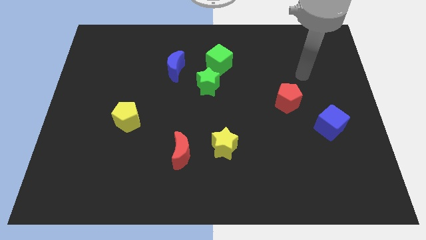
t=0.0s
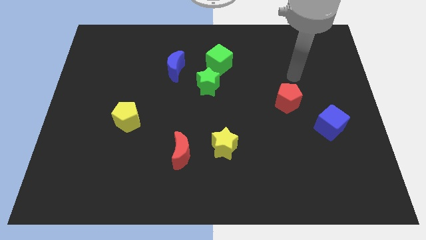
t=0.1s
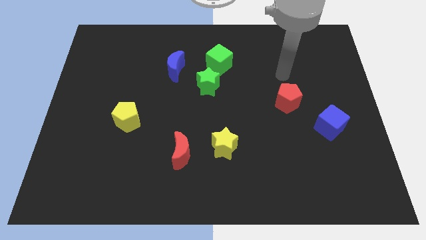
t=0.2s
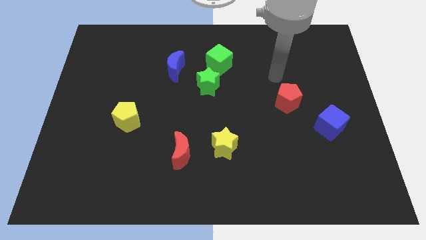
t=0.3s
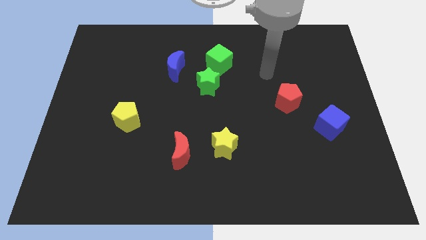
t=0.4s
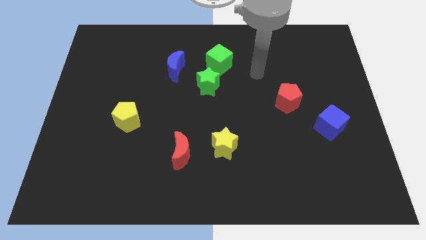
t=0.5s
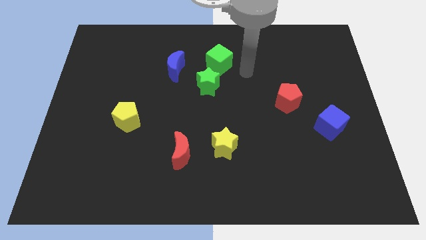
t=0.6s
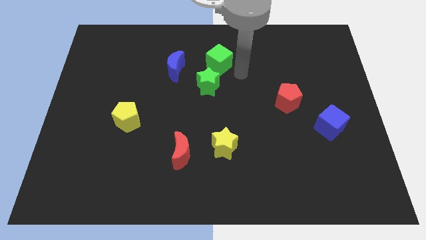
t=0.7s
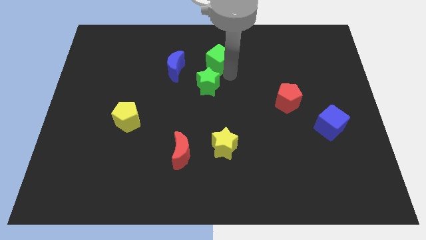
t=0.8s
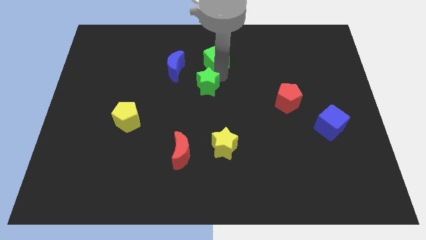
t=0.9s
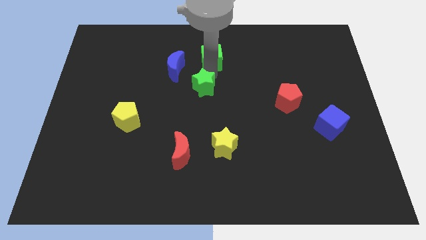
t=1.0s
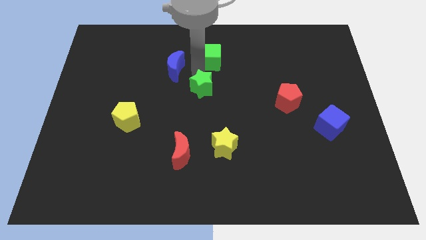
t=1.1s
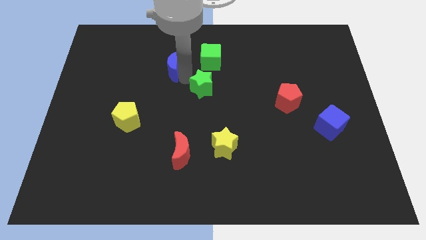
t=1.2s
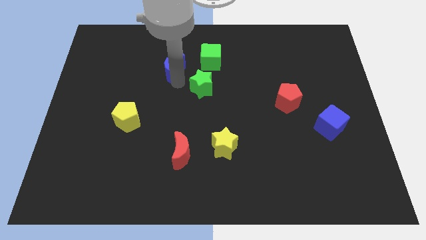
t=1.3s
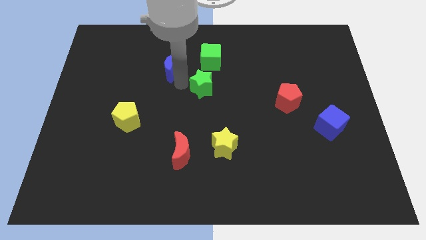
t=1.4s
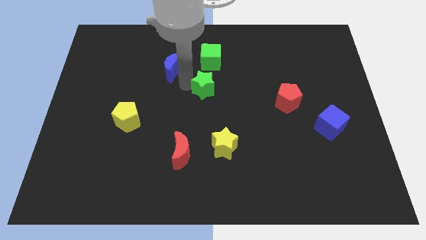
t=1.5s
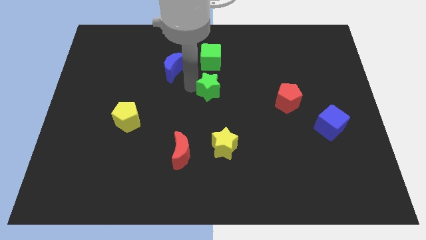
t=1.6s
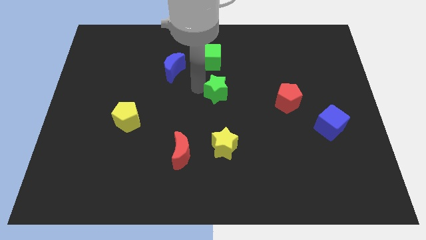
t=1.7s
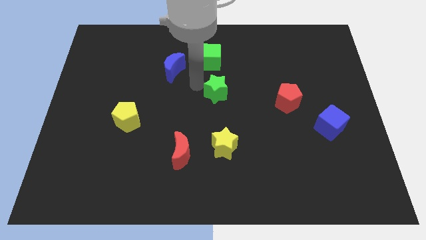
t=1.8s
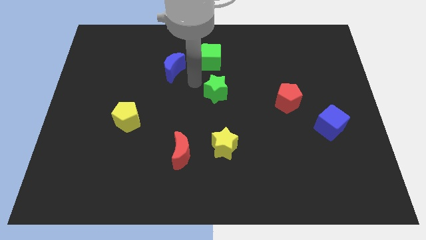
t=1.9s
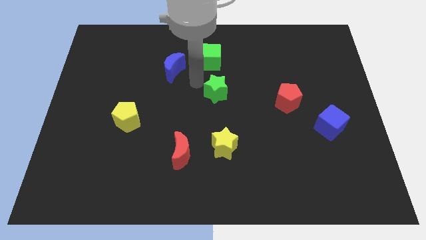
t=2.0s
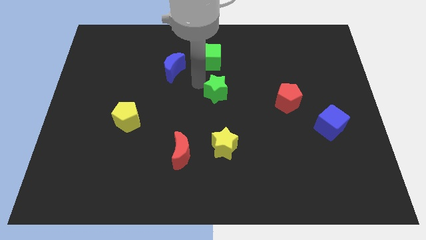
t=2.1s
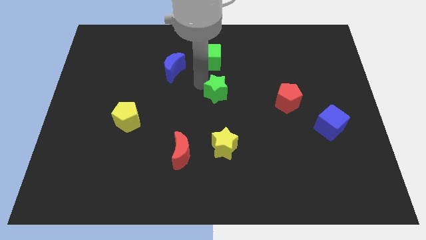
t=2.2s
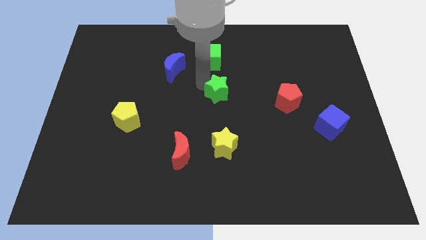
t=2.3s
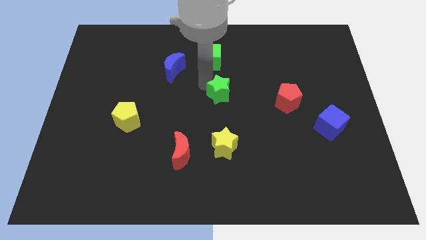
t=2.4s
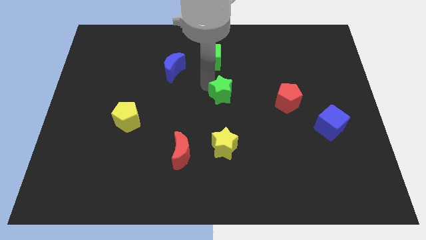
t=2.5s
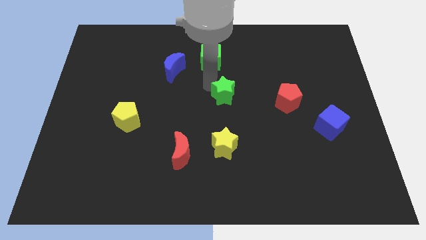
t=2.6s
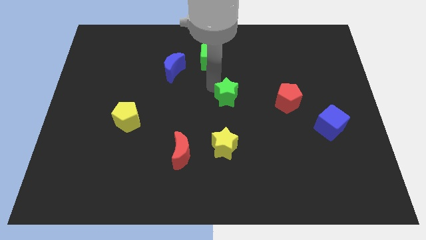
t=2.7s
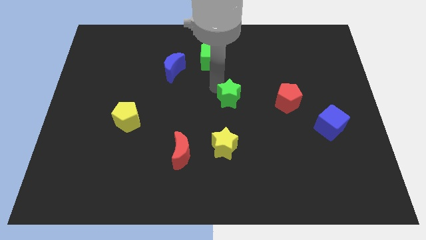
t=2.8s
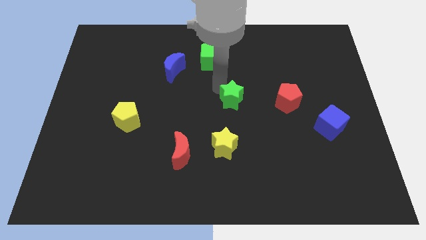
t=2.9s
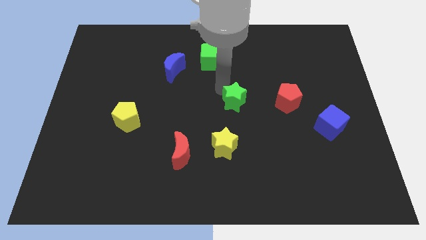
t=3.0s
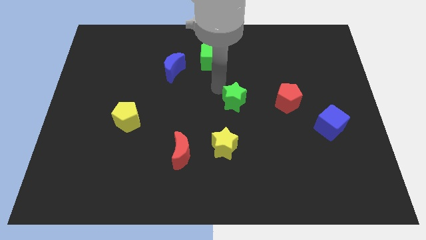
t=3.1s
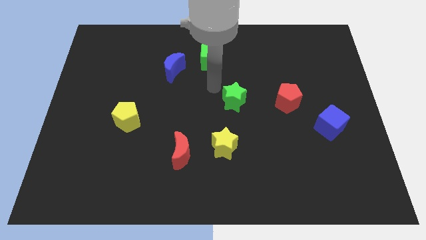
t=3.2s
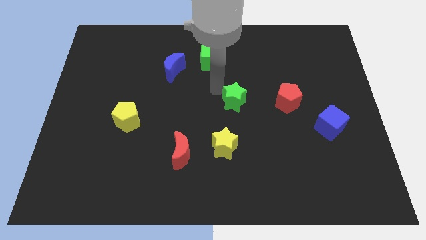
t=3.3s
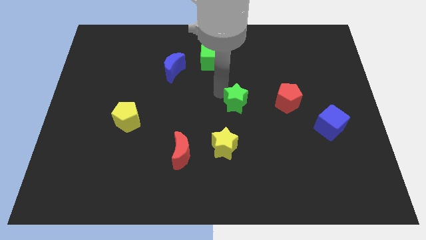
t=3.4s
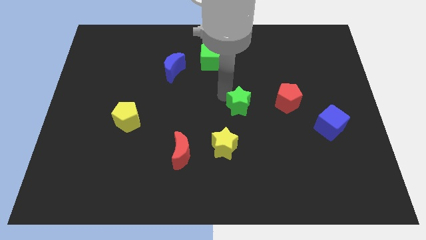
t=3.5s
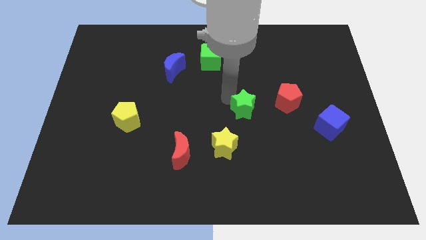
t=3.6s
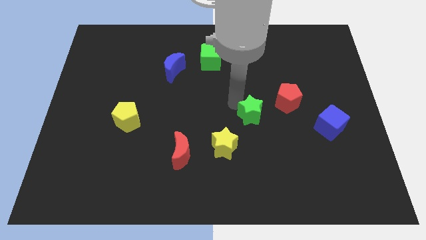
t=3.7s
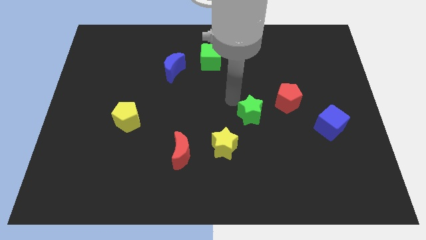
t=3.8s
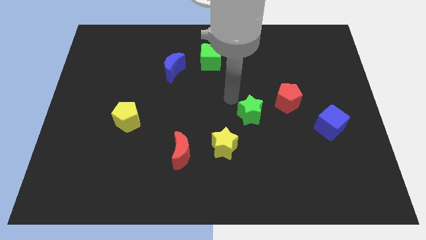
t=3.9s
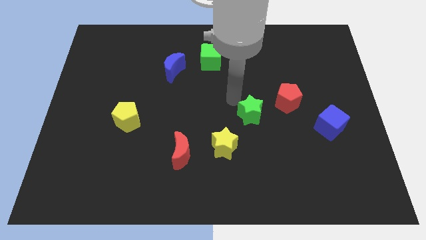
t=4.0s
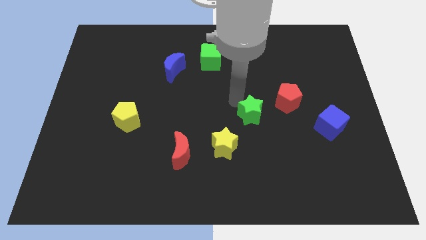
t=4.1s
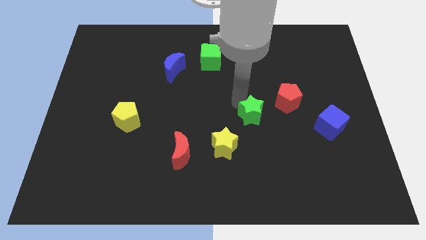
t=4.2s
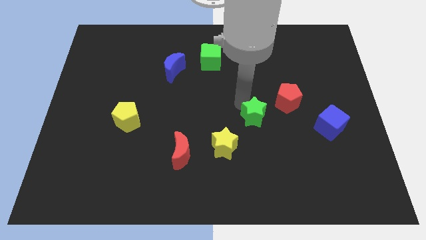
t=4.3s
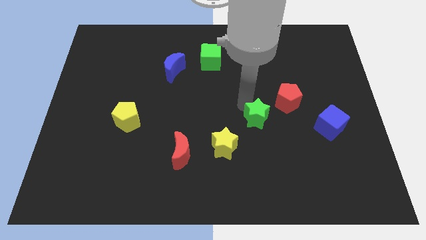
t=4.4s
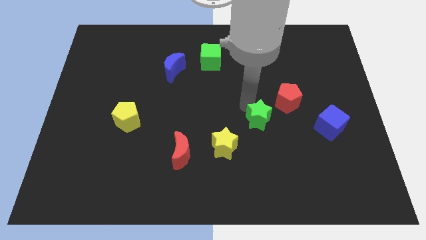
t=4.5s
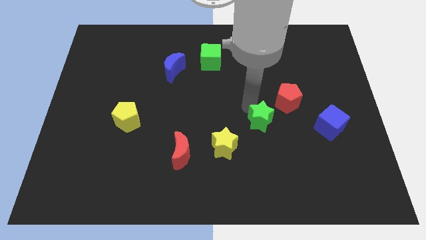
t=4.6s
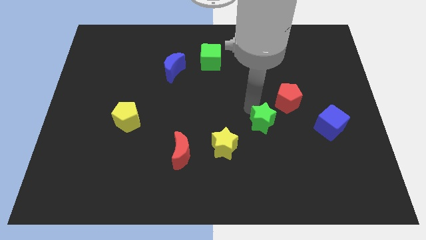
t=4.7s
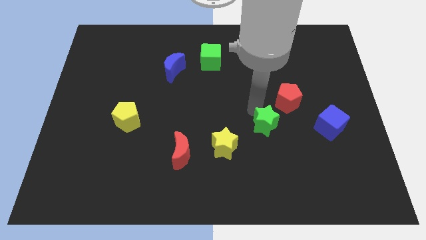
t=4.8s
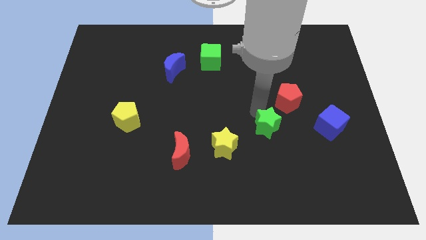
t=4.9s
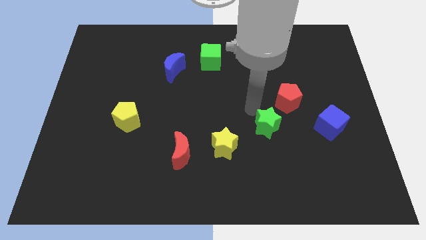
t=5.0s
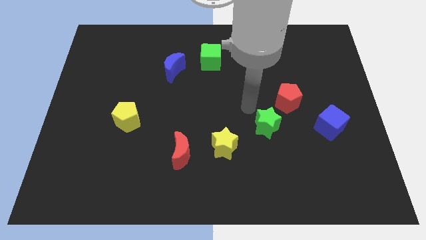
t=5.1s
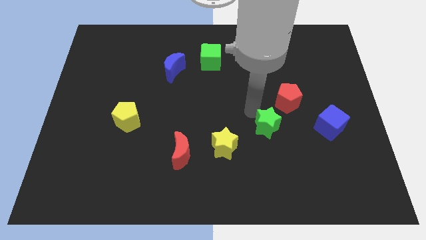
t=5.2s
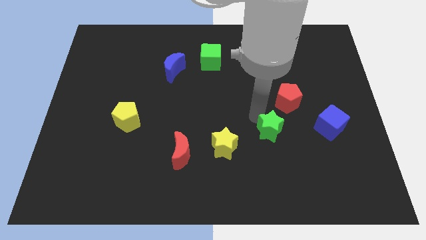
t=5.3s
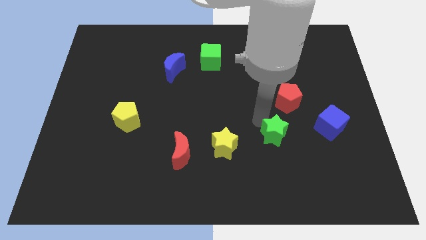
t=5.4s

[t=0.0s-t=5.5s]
move the green star downwards and then right

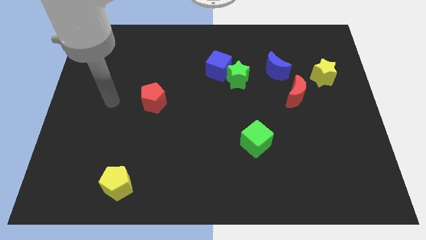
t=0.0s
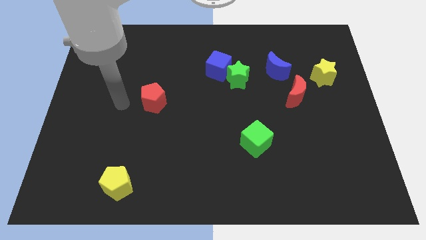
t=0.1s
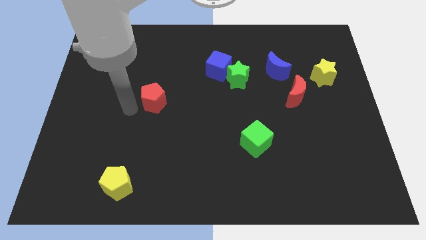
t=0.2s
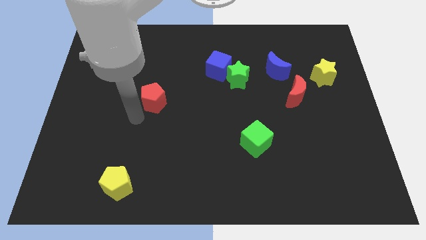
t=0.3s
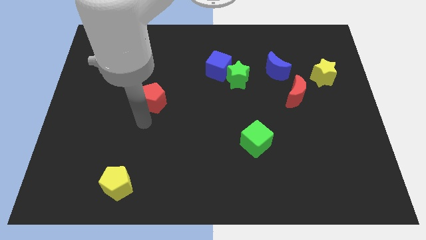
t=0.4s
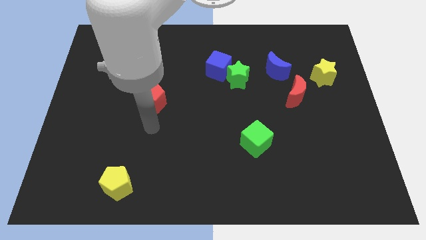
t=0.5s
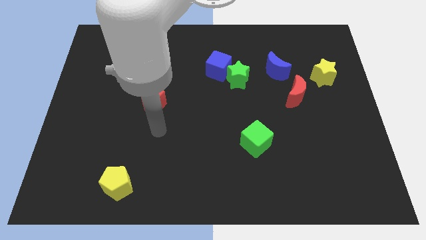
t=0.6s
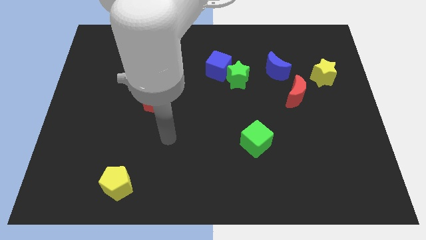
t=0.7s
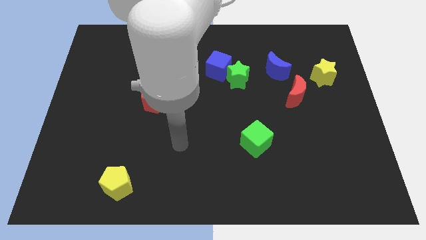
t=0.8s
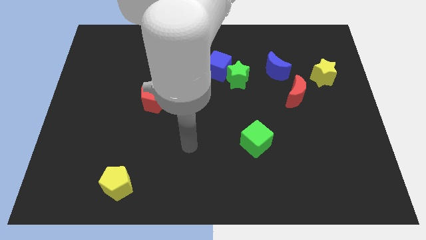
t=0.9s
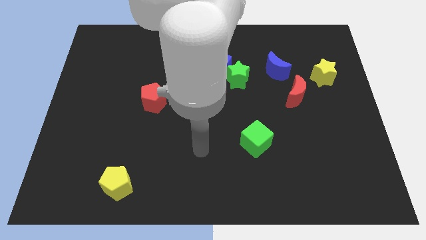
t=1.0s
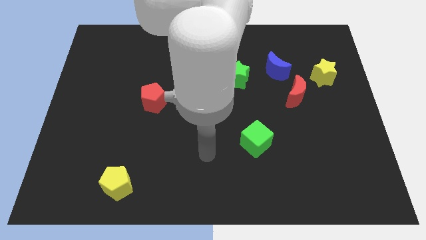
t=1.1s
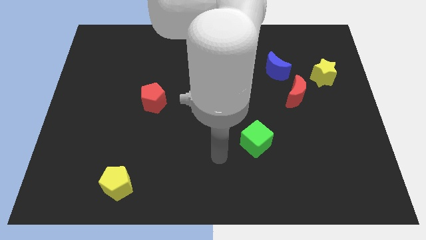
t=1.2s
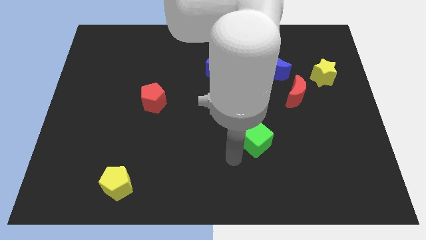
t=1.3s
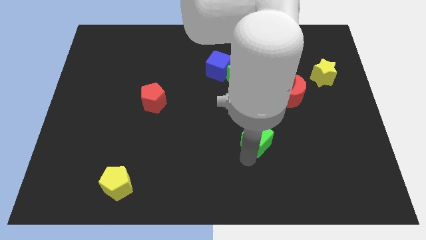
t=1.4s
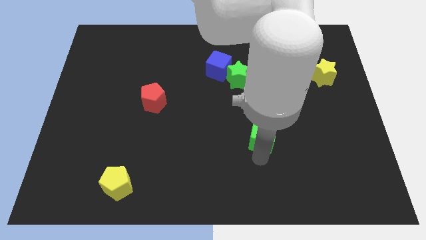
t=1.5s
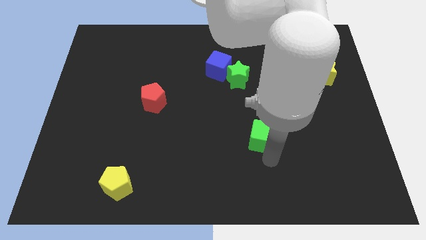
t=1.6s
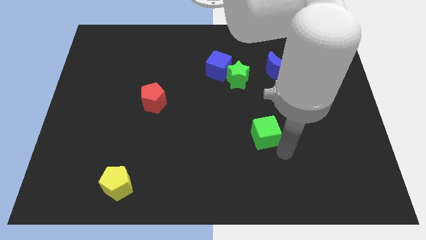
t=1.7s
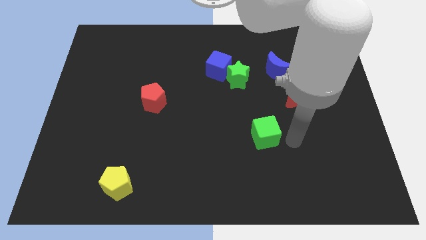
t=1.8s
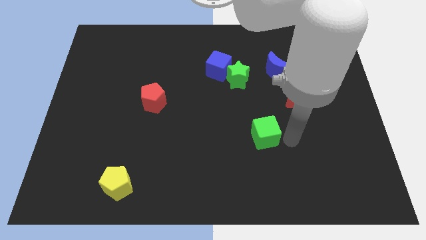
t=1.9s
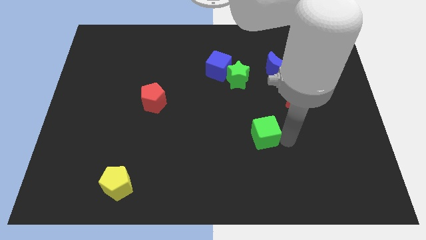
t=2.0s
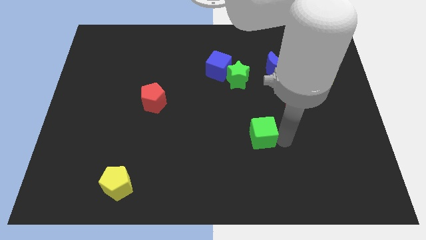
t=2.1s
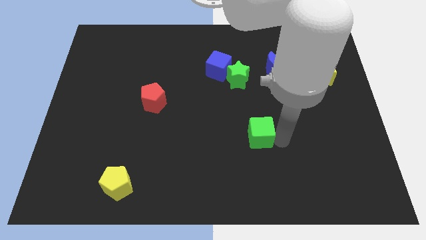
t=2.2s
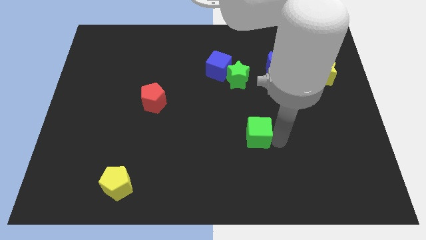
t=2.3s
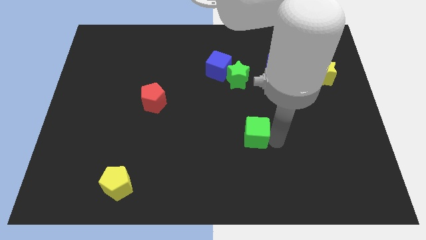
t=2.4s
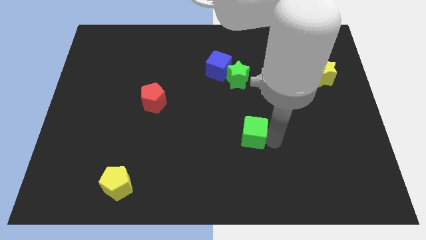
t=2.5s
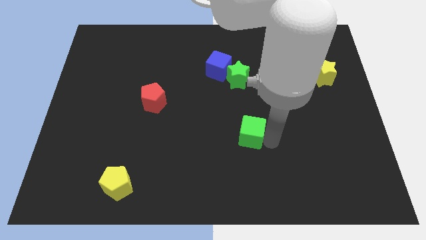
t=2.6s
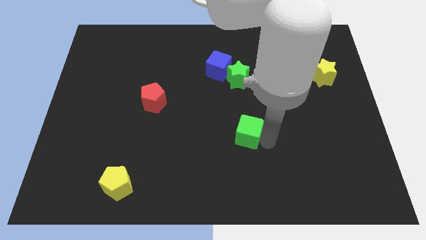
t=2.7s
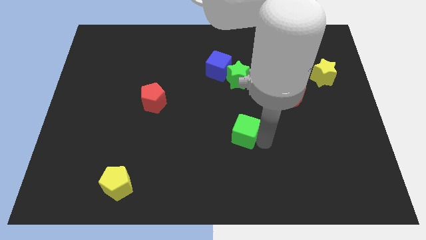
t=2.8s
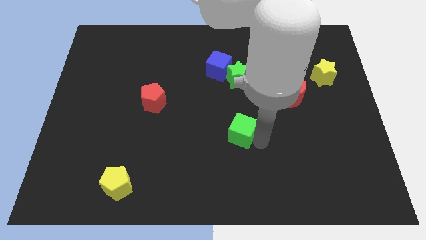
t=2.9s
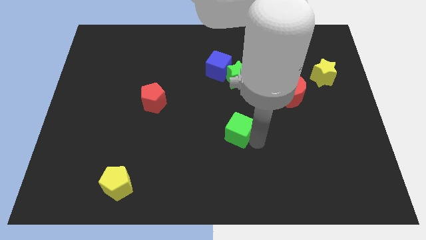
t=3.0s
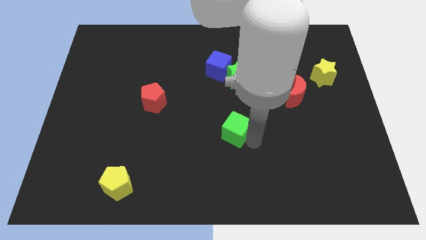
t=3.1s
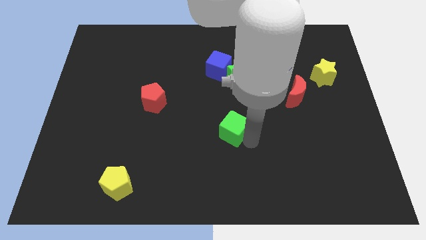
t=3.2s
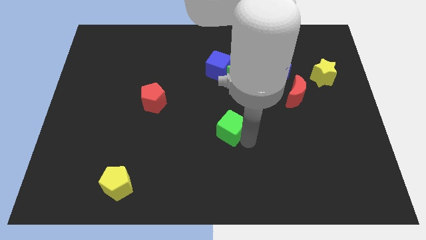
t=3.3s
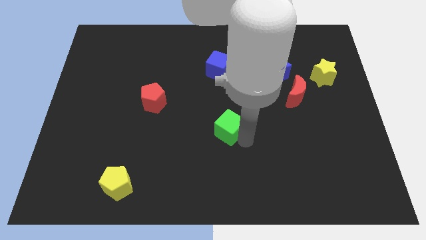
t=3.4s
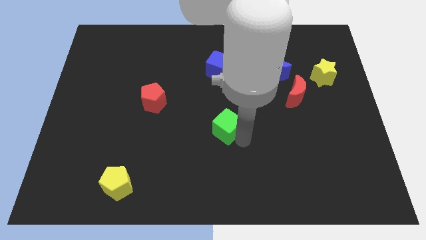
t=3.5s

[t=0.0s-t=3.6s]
push the green cube a little upwards and to the left diagonally
